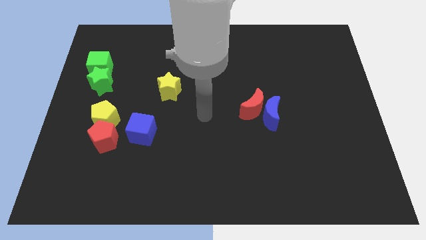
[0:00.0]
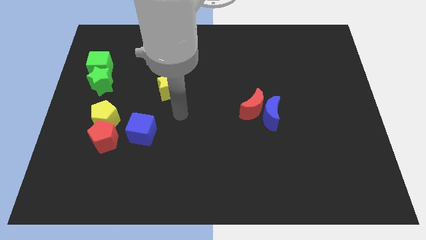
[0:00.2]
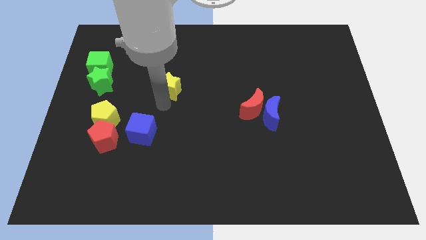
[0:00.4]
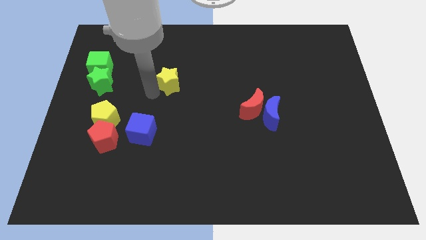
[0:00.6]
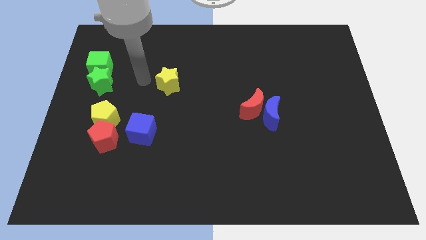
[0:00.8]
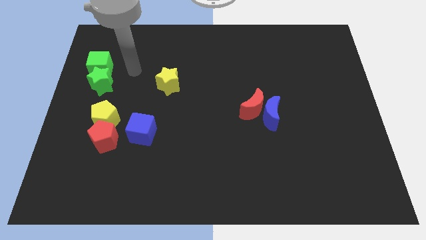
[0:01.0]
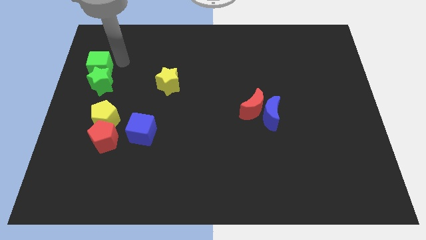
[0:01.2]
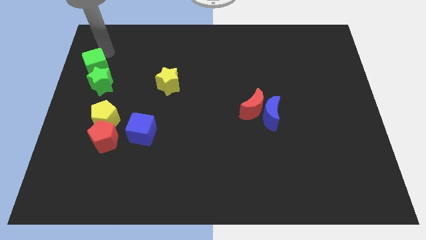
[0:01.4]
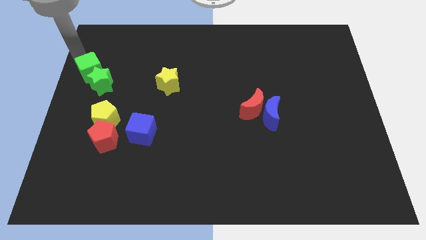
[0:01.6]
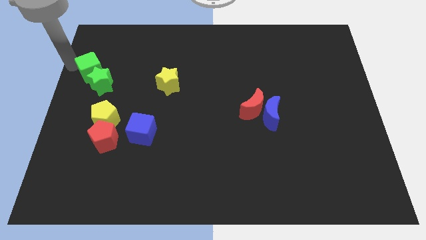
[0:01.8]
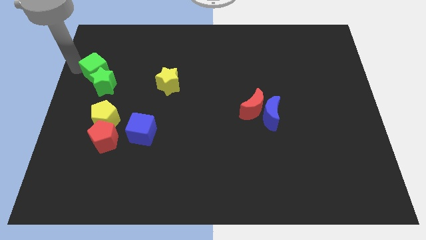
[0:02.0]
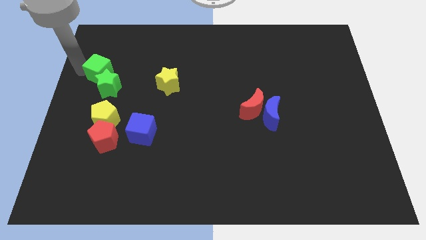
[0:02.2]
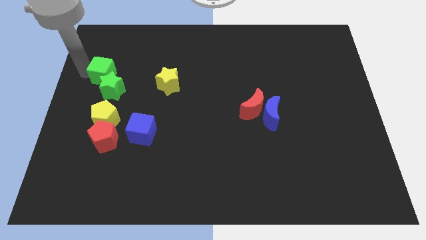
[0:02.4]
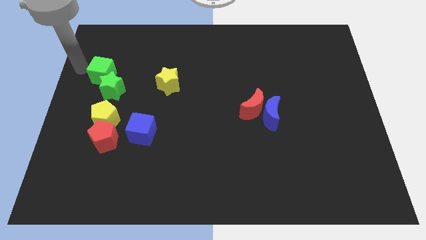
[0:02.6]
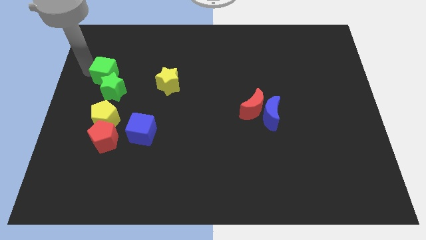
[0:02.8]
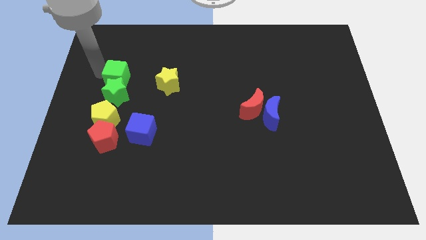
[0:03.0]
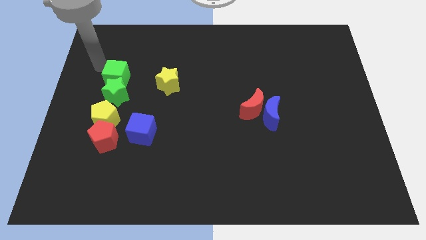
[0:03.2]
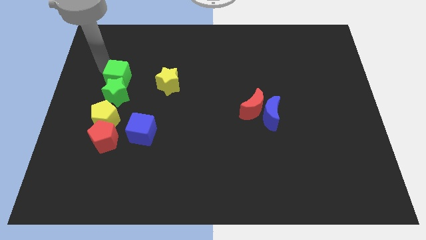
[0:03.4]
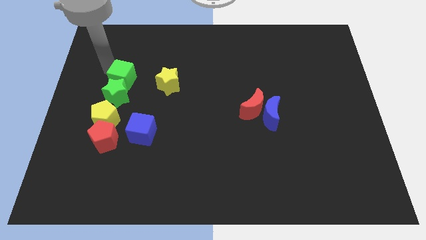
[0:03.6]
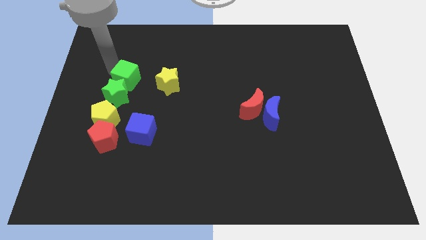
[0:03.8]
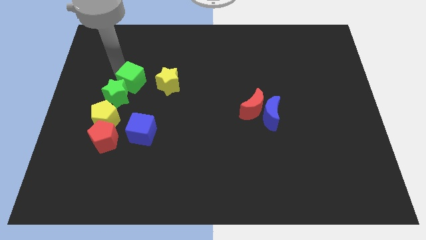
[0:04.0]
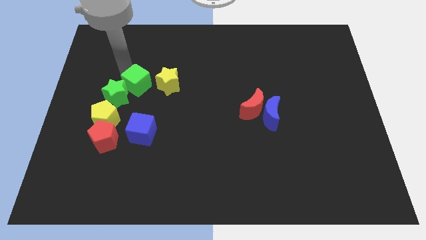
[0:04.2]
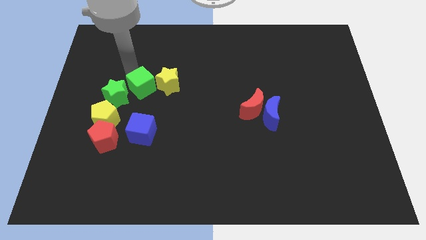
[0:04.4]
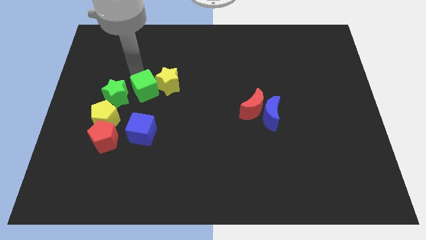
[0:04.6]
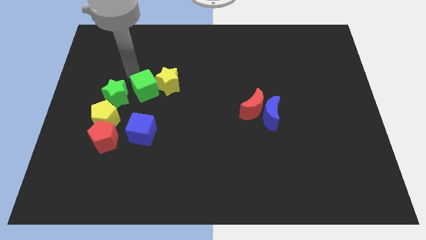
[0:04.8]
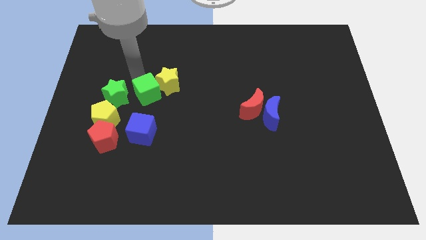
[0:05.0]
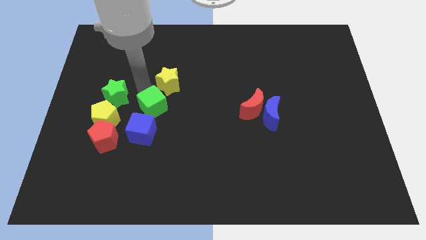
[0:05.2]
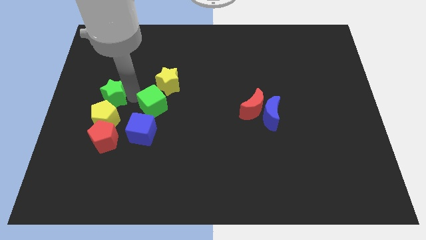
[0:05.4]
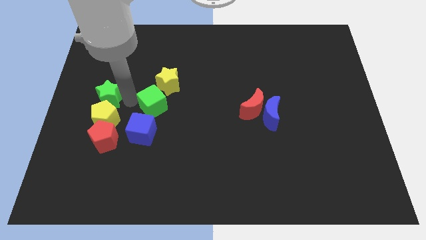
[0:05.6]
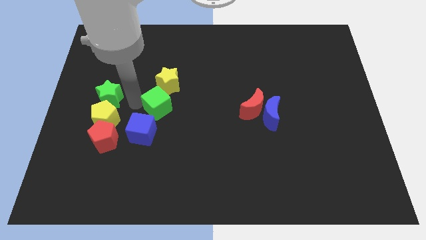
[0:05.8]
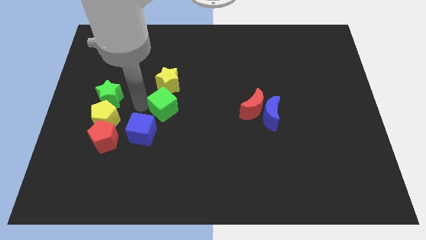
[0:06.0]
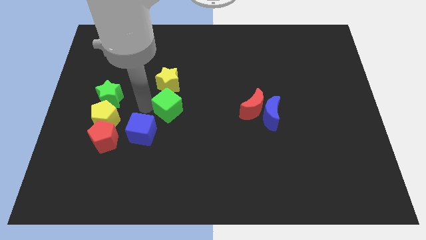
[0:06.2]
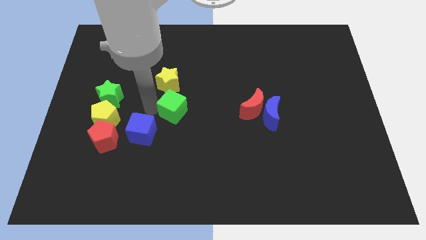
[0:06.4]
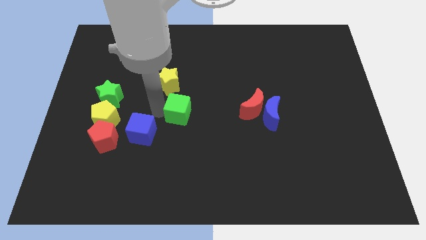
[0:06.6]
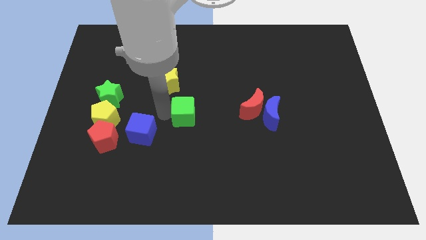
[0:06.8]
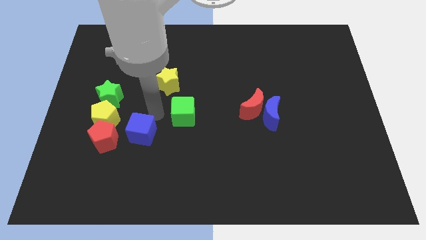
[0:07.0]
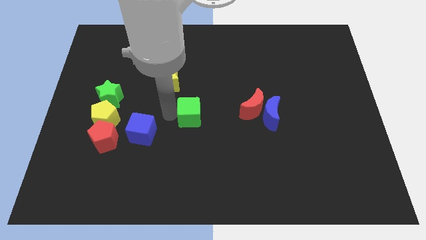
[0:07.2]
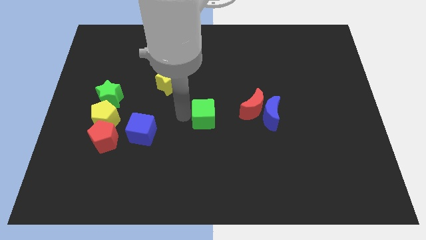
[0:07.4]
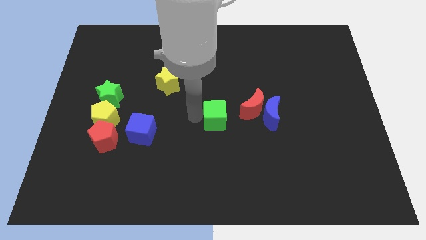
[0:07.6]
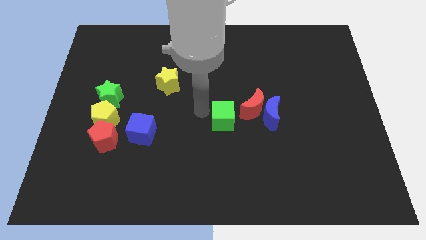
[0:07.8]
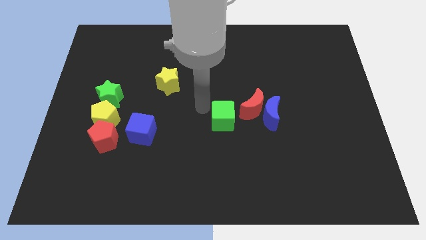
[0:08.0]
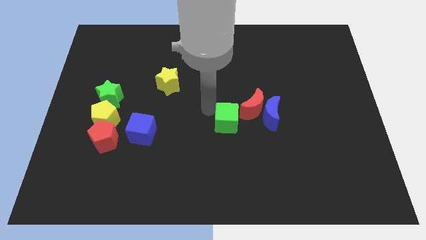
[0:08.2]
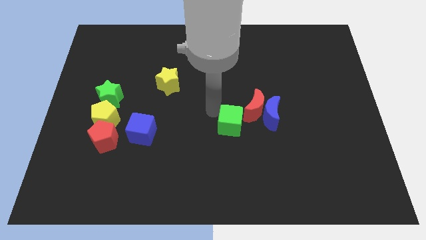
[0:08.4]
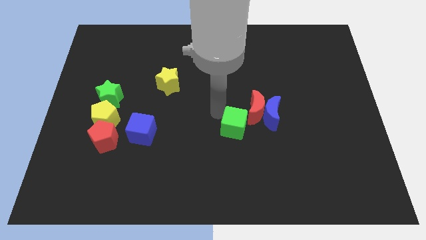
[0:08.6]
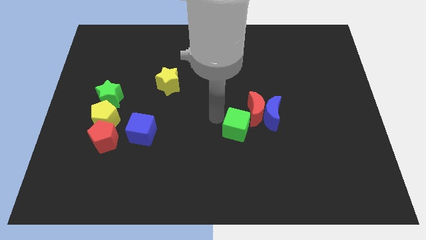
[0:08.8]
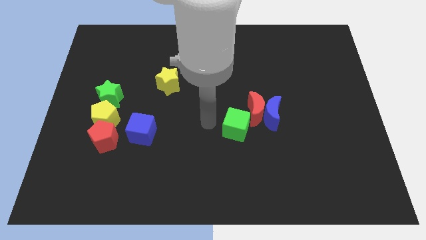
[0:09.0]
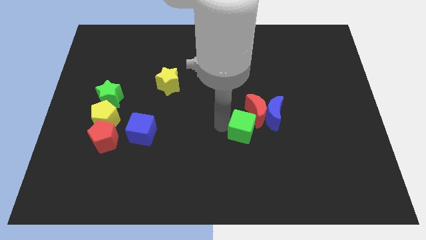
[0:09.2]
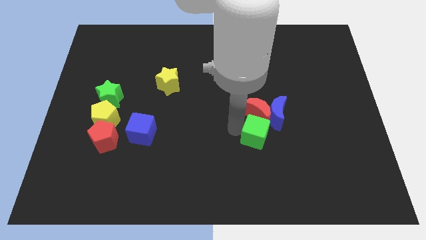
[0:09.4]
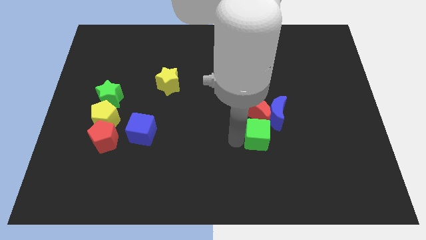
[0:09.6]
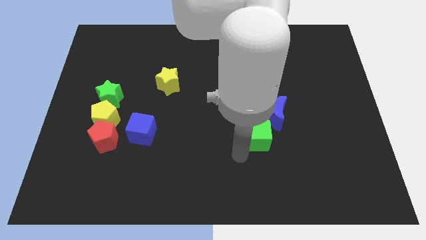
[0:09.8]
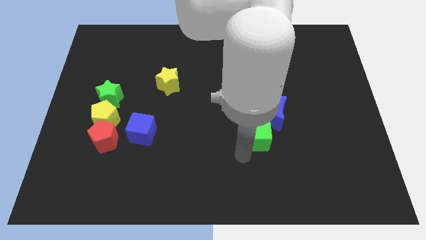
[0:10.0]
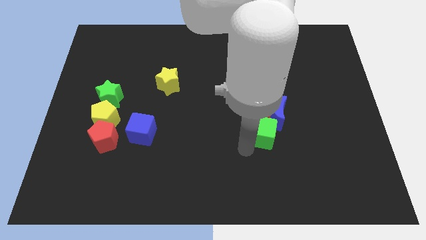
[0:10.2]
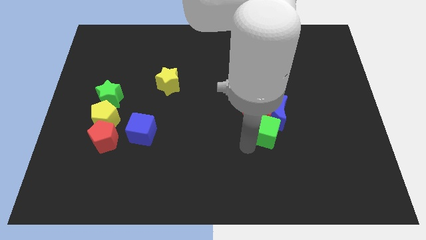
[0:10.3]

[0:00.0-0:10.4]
push the green cube close to the blue moon

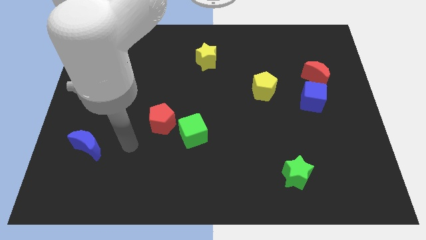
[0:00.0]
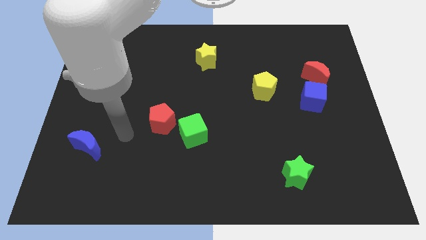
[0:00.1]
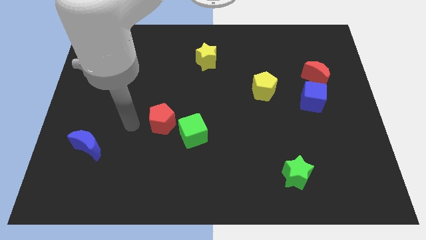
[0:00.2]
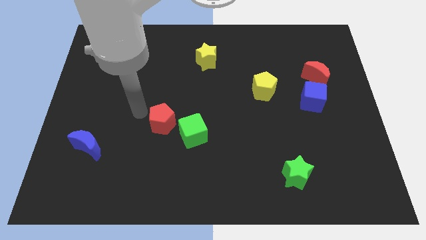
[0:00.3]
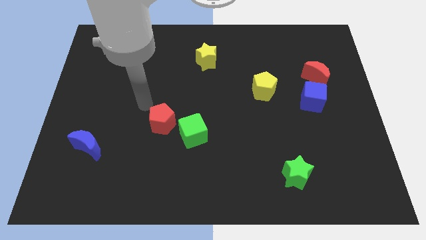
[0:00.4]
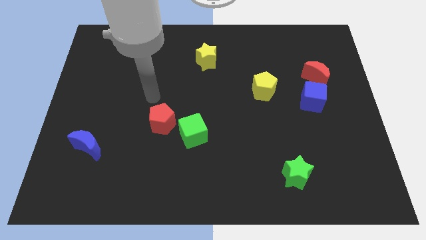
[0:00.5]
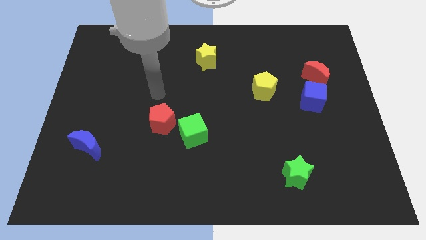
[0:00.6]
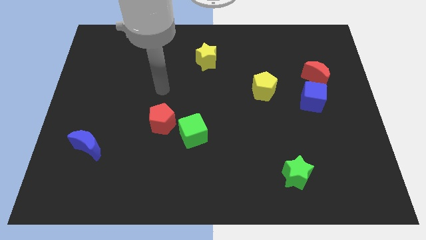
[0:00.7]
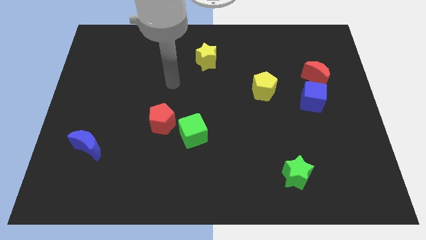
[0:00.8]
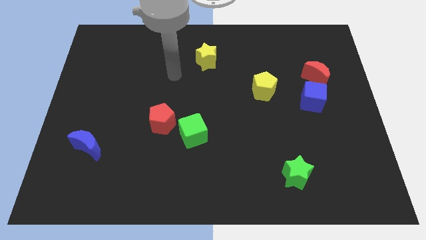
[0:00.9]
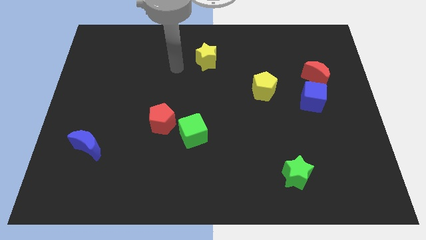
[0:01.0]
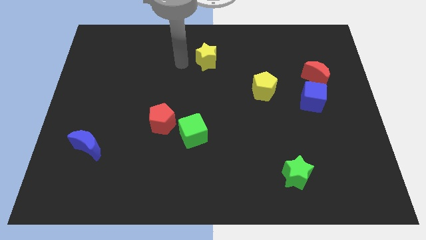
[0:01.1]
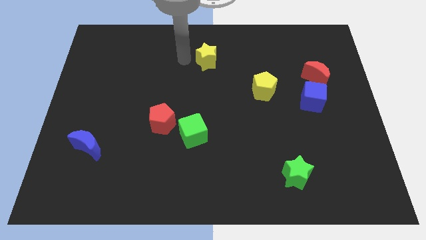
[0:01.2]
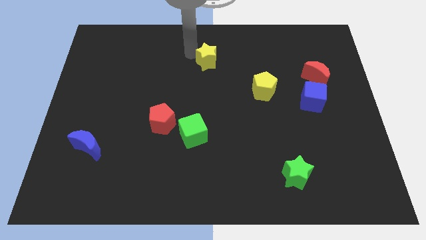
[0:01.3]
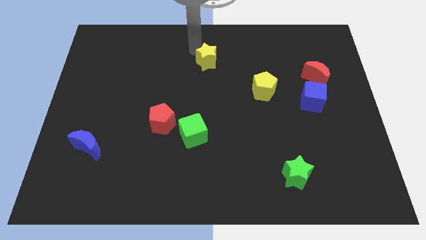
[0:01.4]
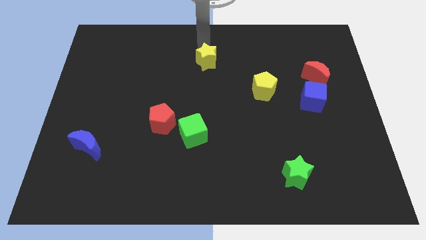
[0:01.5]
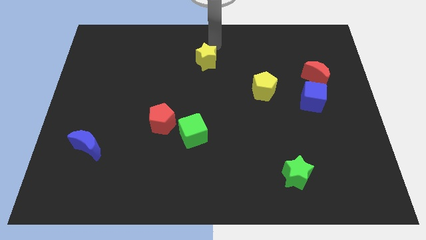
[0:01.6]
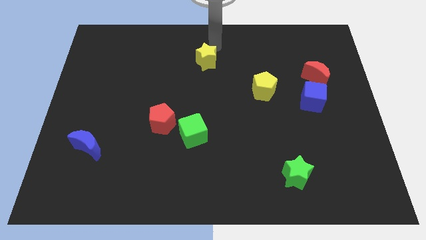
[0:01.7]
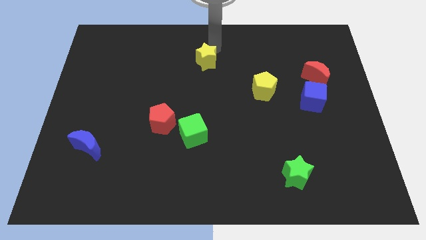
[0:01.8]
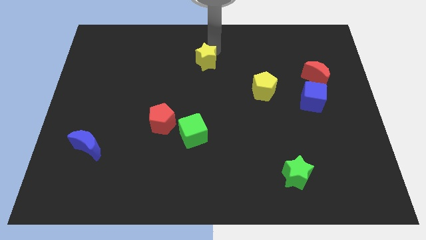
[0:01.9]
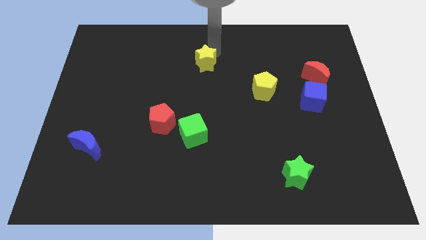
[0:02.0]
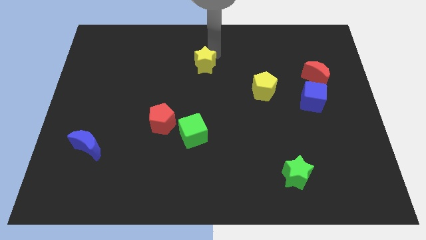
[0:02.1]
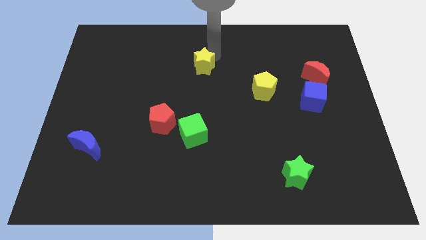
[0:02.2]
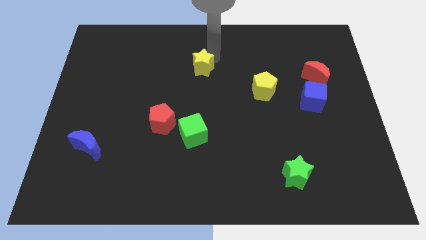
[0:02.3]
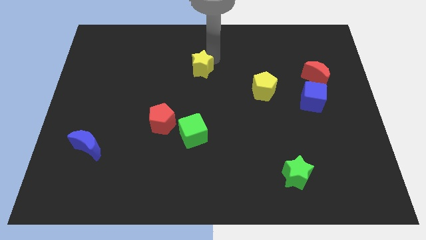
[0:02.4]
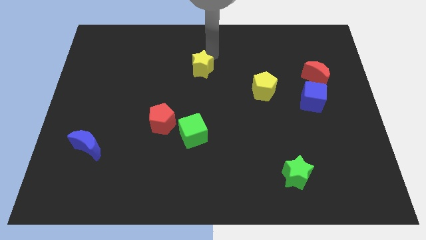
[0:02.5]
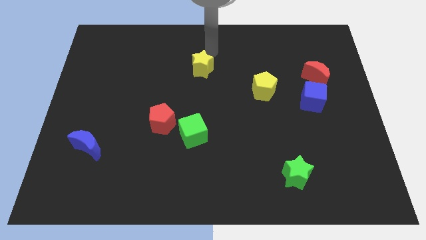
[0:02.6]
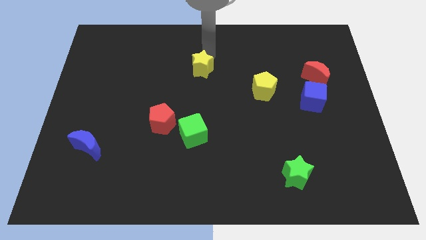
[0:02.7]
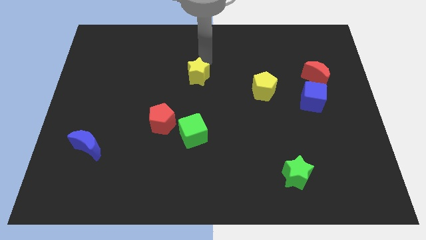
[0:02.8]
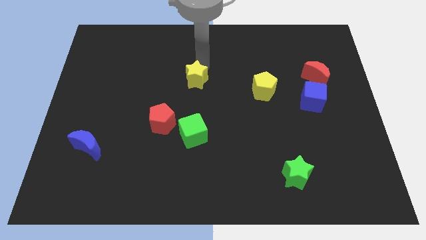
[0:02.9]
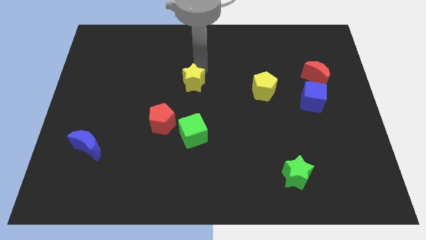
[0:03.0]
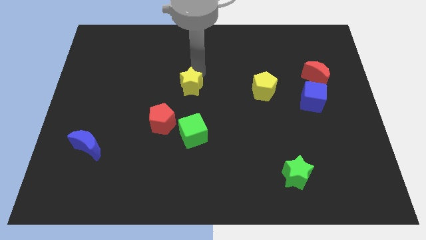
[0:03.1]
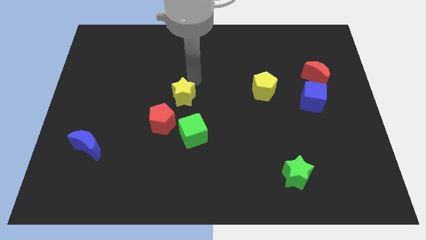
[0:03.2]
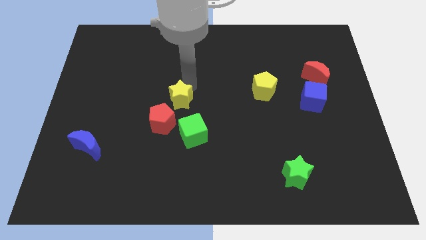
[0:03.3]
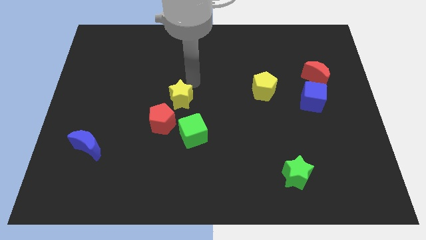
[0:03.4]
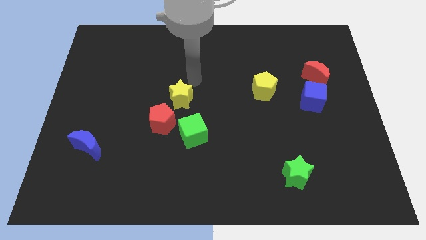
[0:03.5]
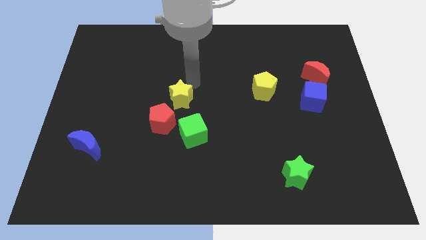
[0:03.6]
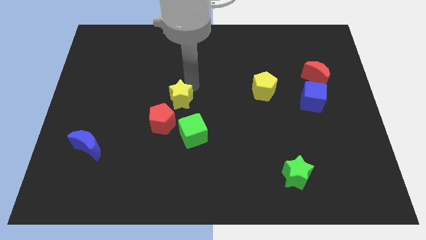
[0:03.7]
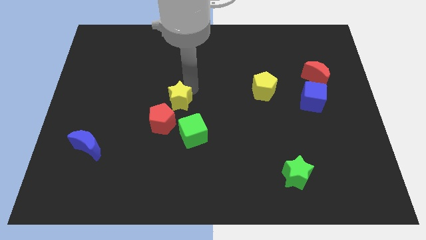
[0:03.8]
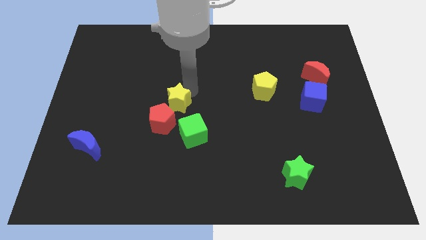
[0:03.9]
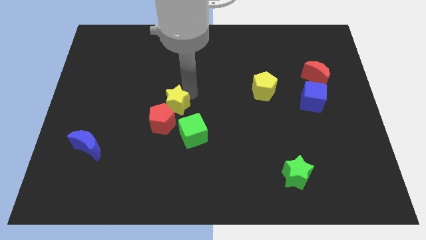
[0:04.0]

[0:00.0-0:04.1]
push the yellow star towards the red pentagon
